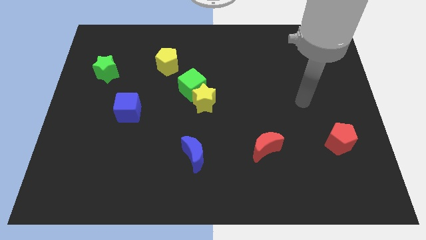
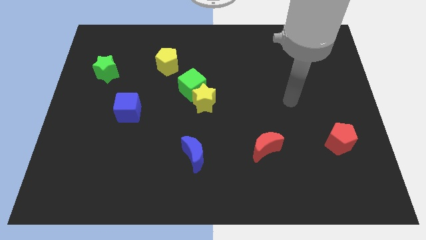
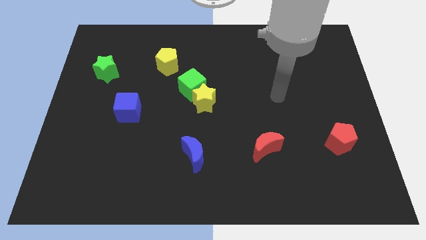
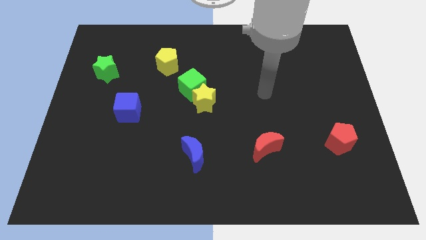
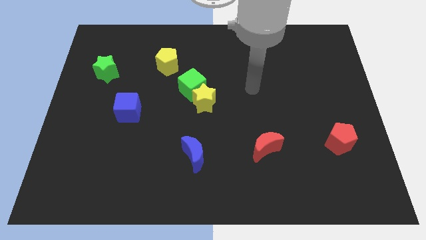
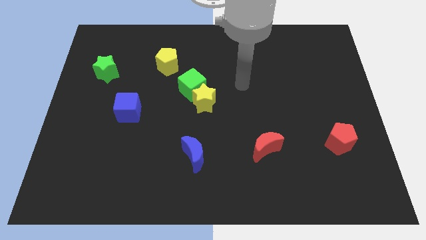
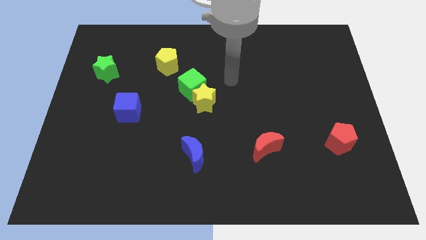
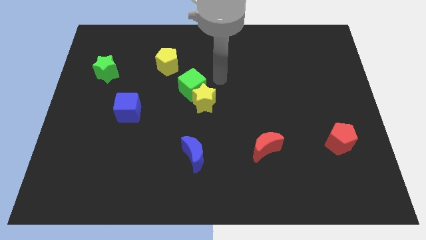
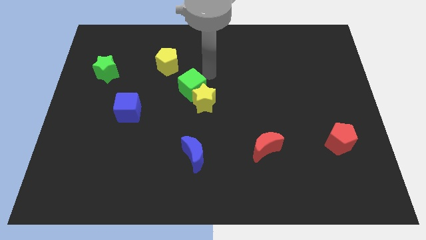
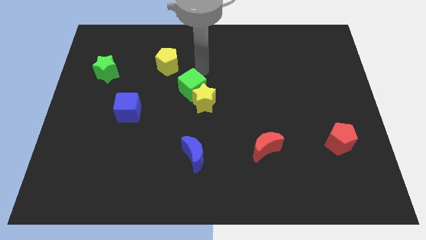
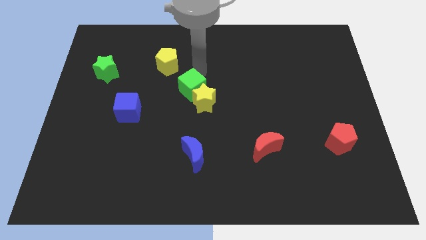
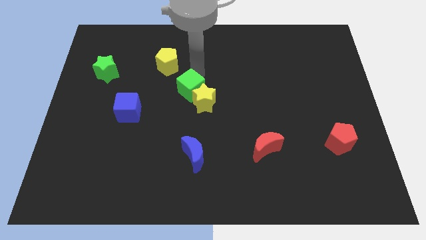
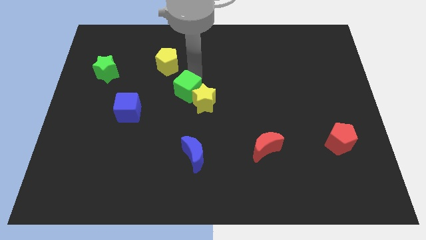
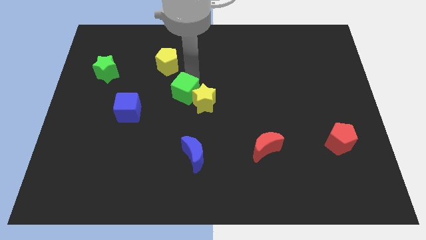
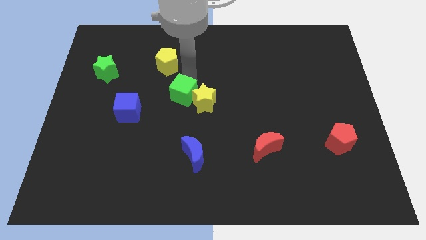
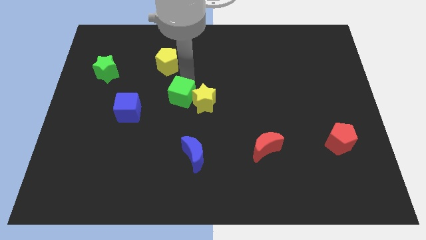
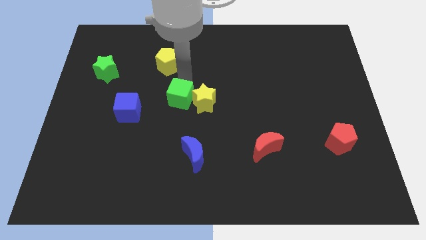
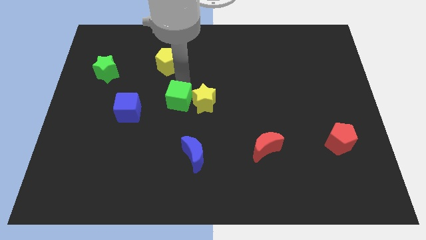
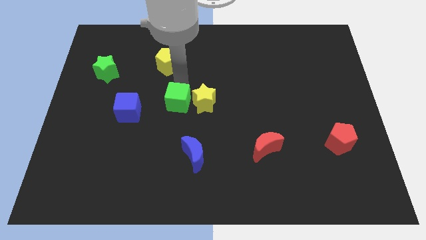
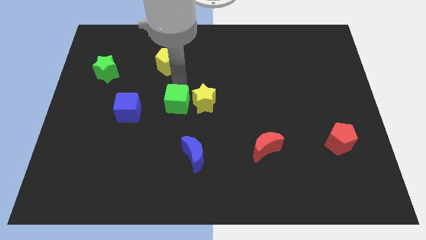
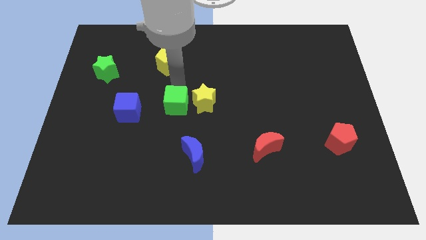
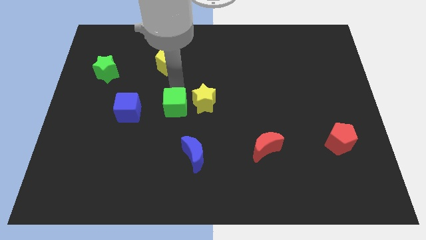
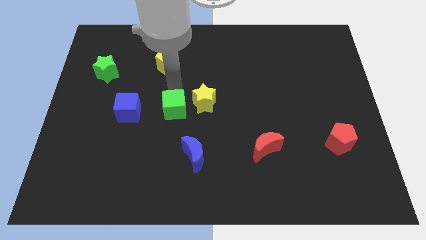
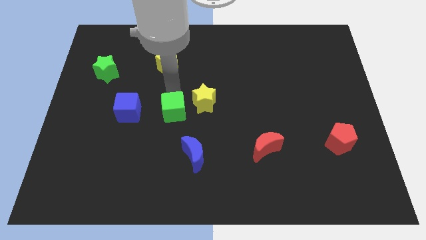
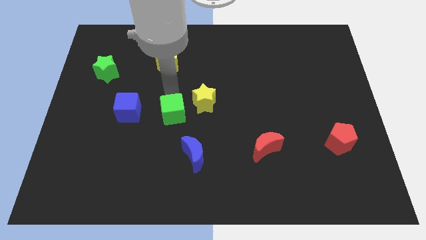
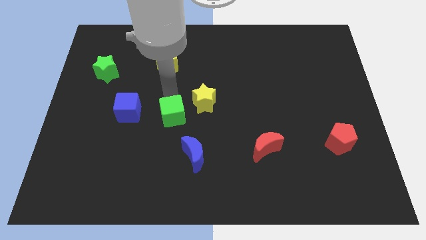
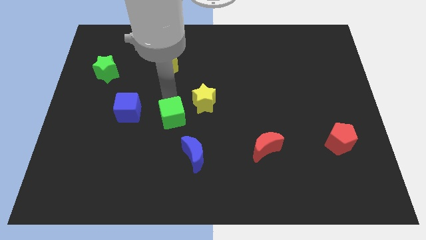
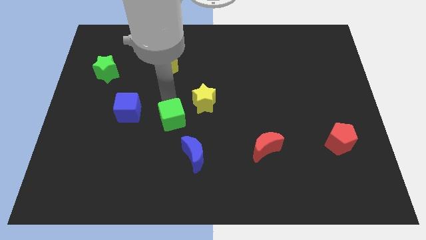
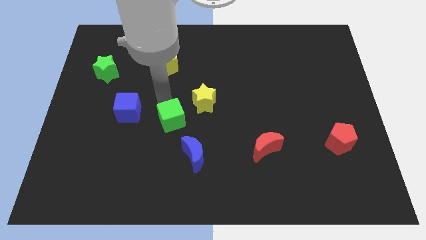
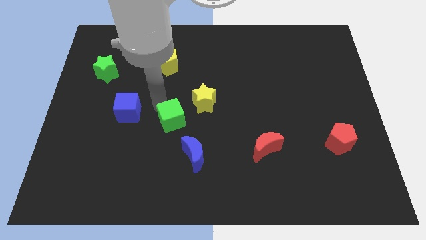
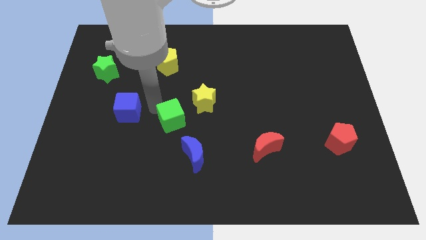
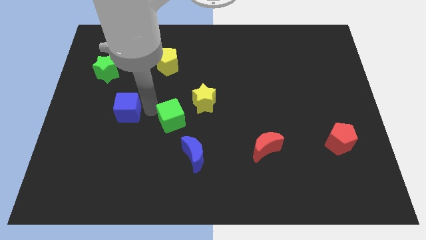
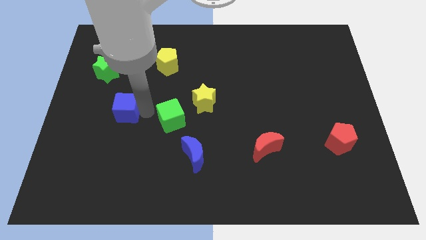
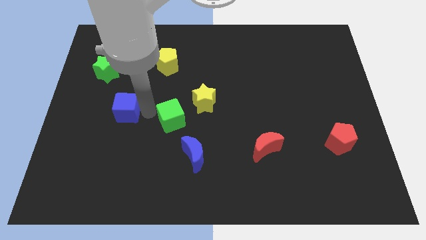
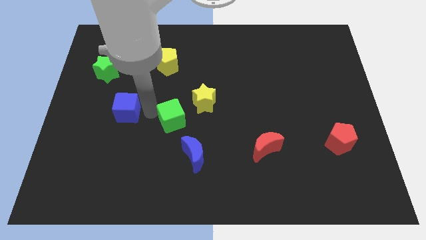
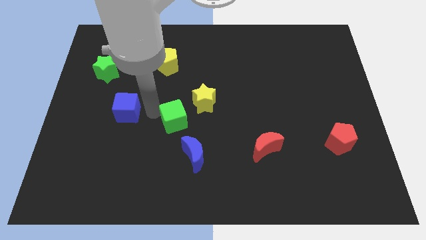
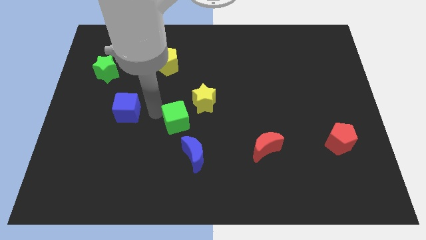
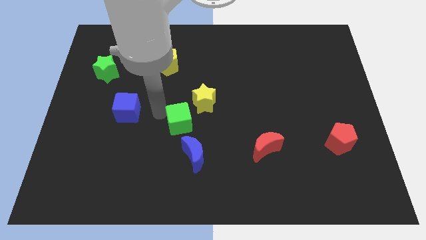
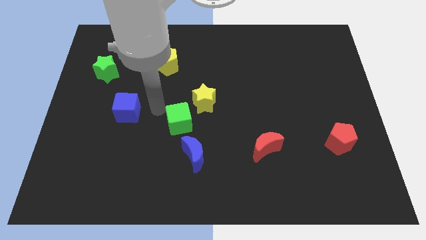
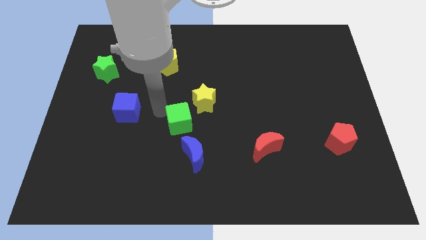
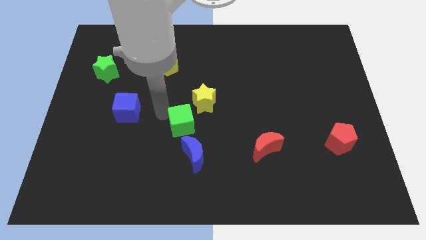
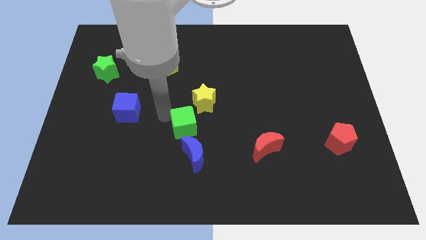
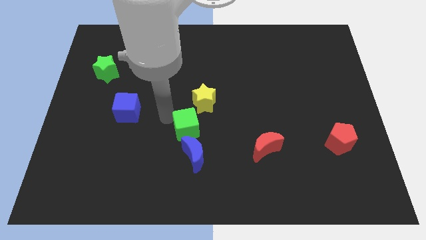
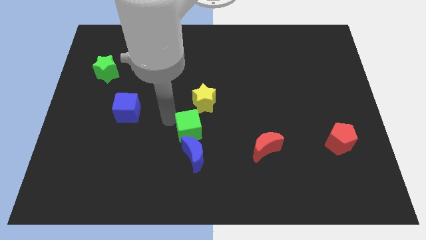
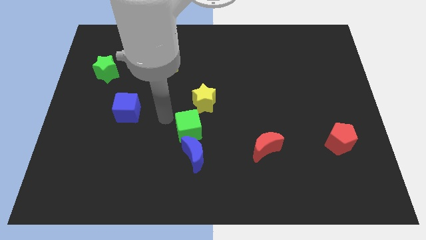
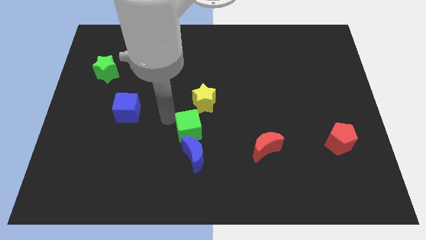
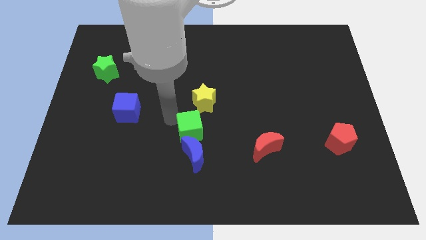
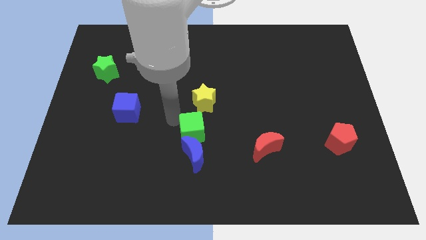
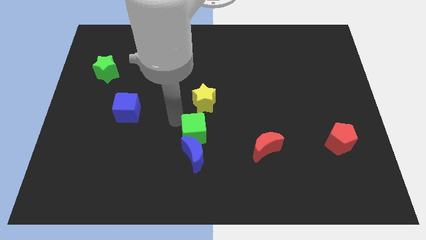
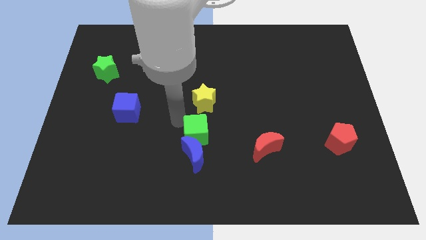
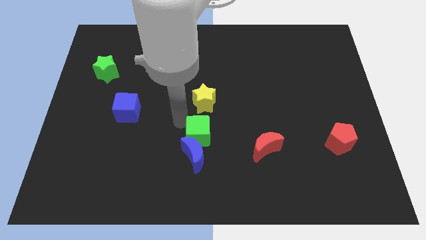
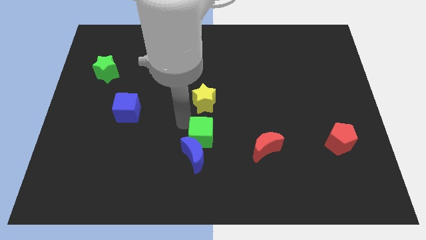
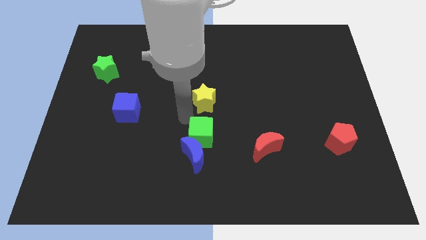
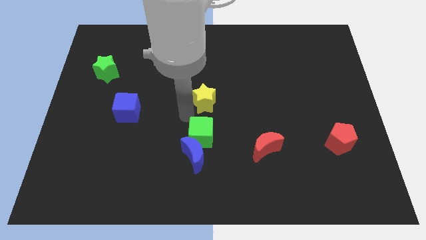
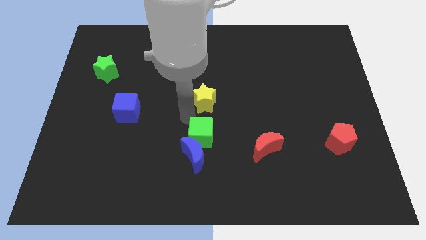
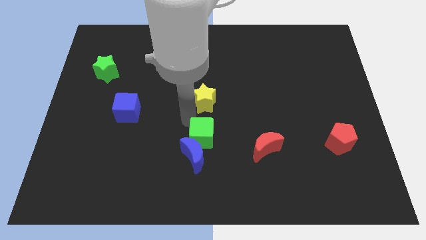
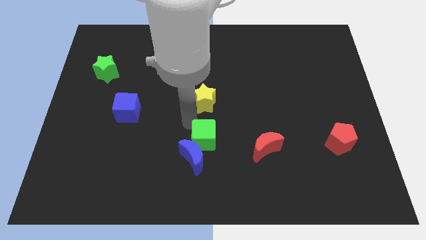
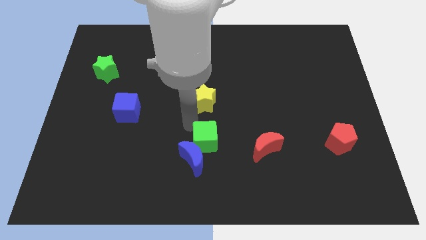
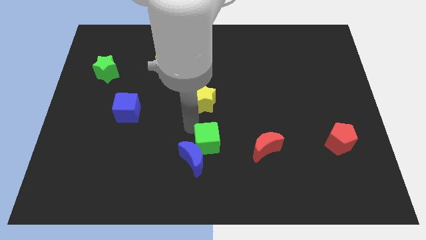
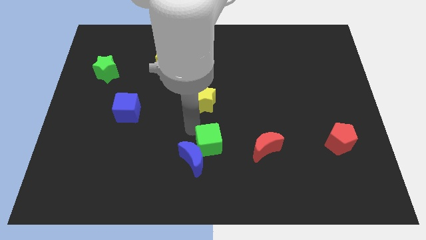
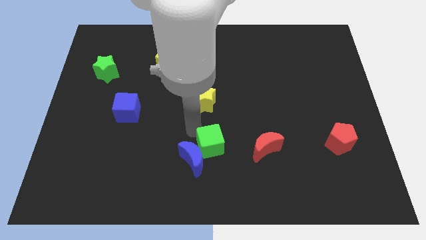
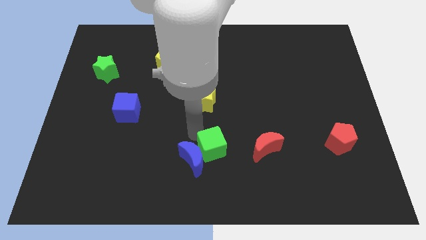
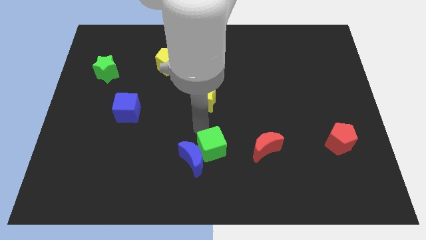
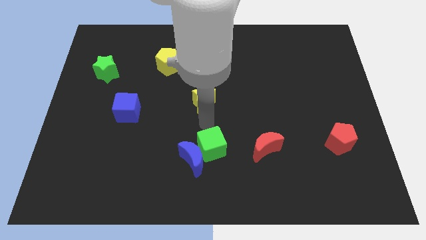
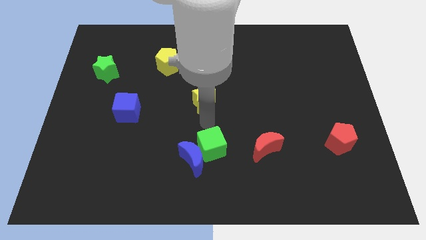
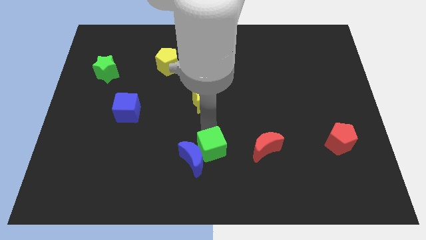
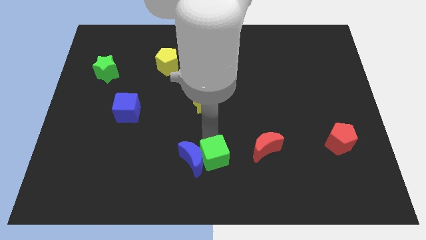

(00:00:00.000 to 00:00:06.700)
move the green cube diagonally down and to the right of the blue moon

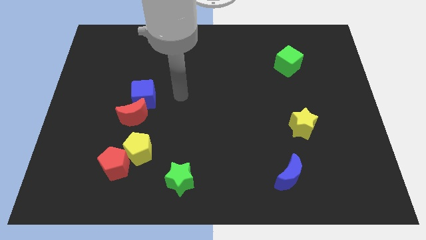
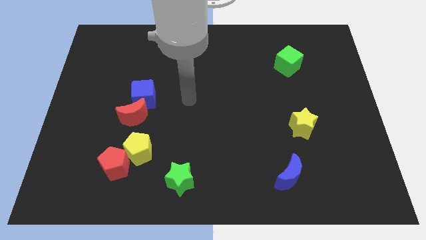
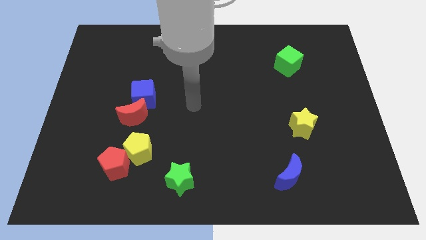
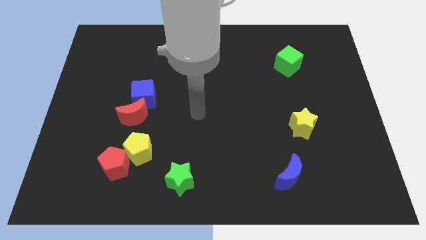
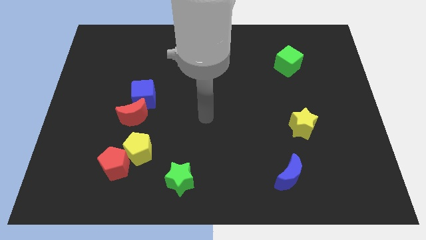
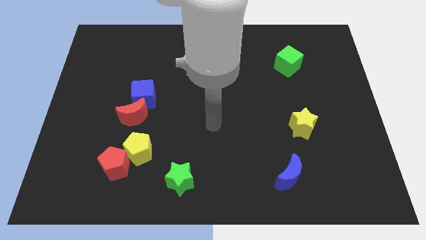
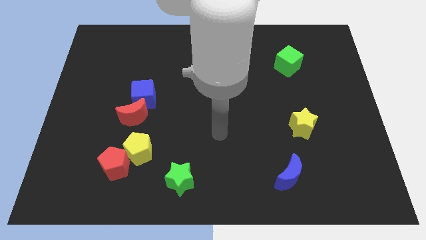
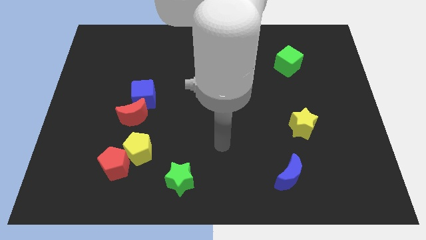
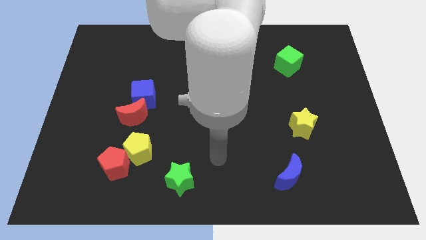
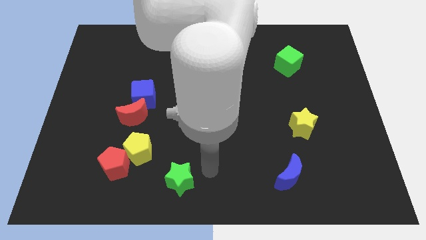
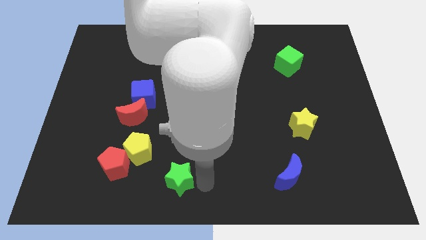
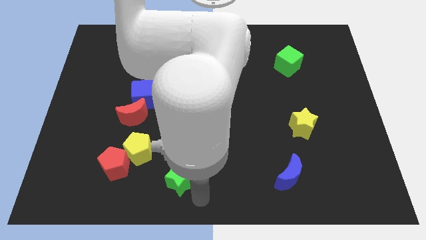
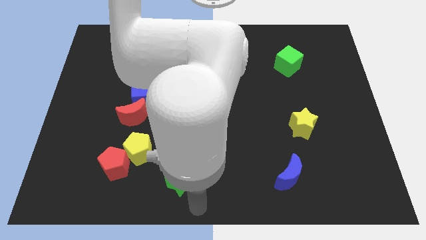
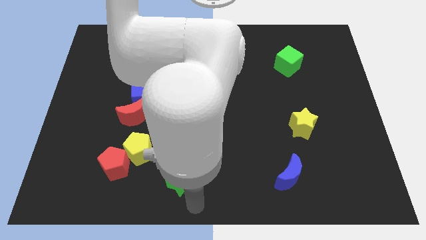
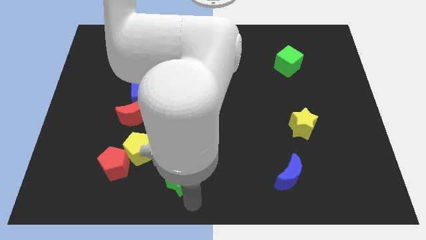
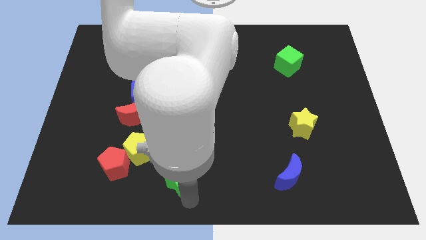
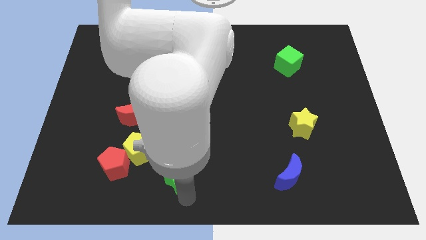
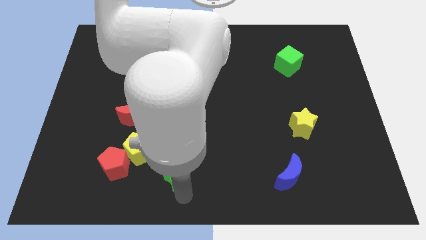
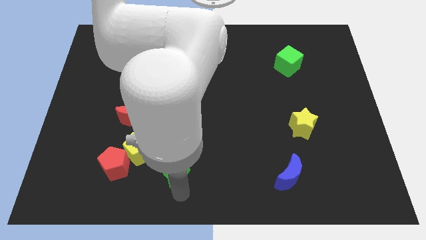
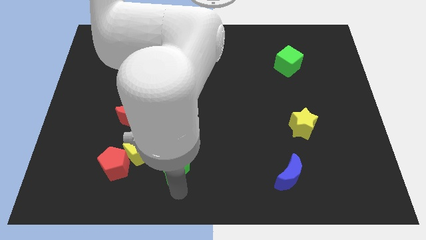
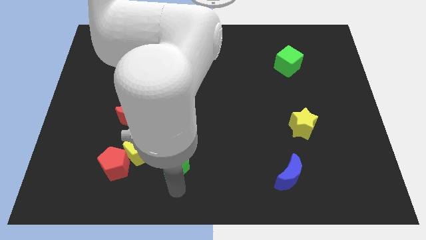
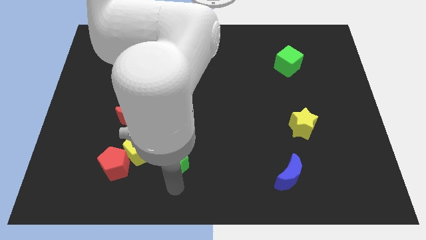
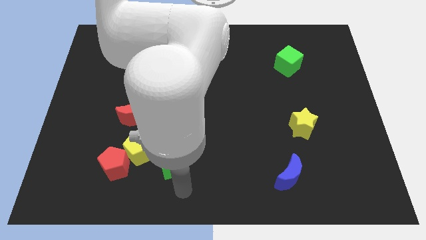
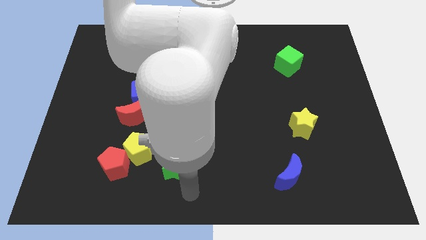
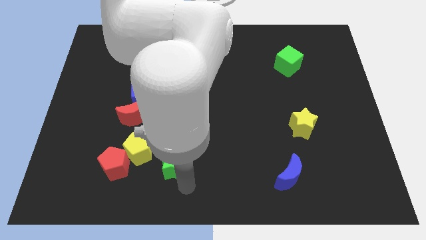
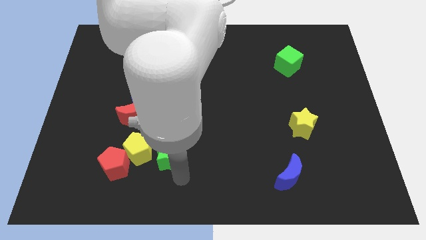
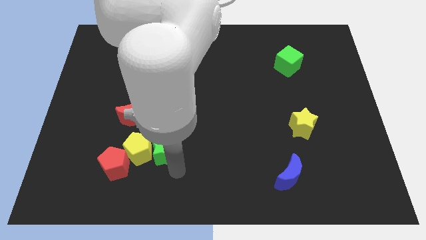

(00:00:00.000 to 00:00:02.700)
put the green star diagonally down and to the right of the red moon
